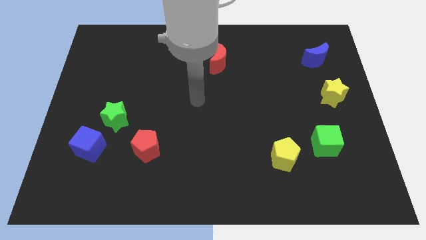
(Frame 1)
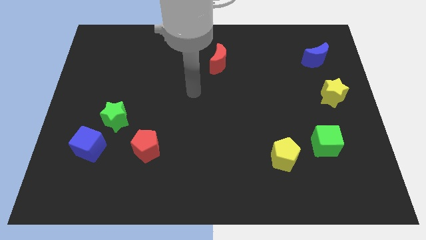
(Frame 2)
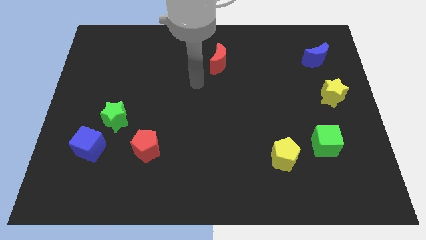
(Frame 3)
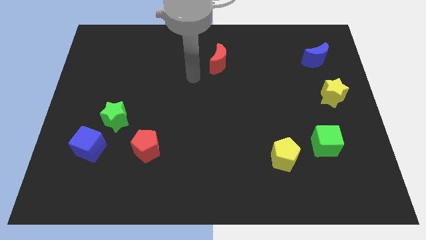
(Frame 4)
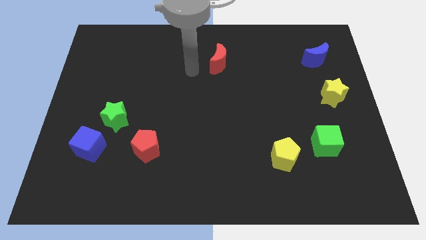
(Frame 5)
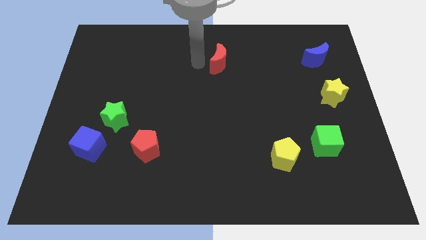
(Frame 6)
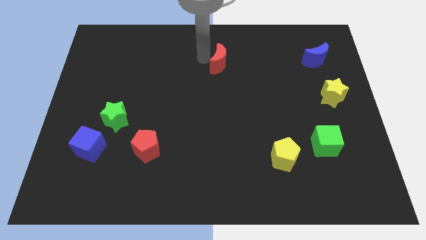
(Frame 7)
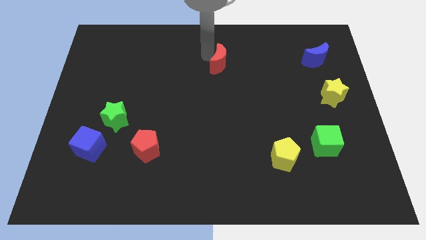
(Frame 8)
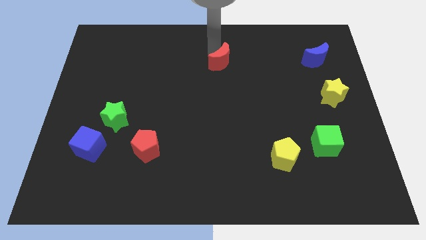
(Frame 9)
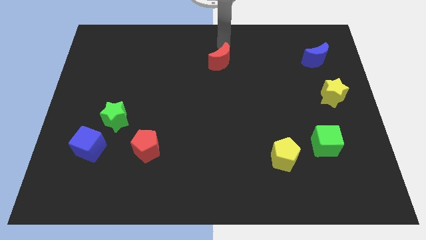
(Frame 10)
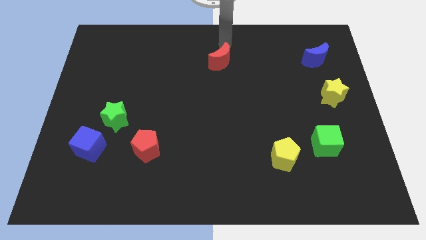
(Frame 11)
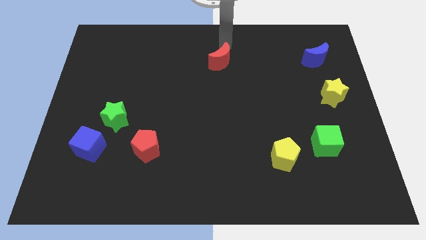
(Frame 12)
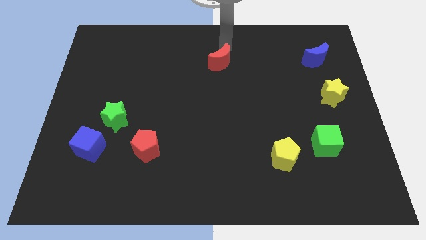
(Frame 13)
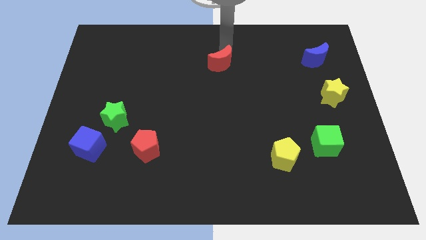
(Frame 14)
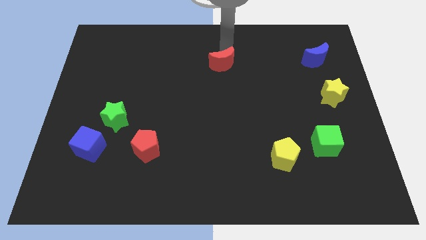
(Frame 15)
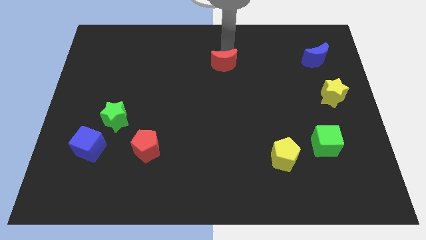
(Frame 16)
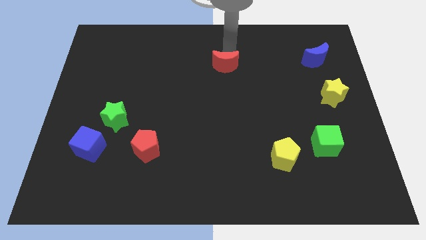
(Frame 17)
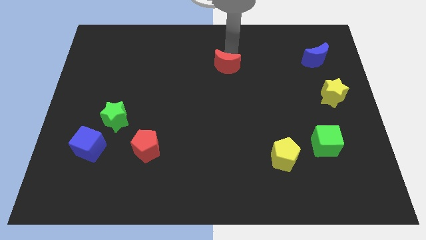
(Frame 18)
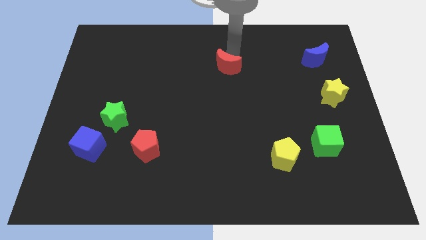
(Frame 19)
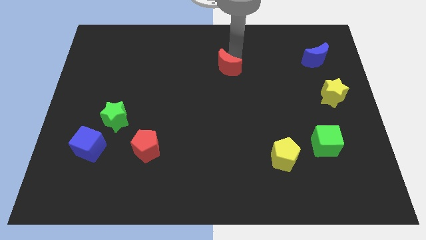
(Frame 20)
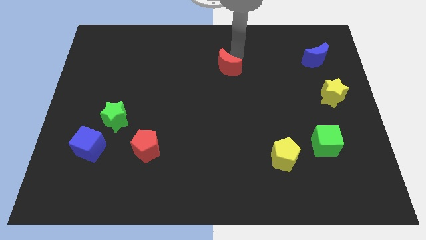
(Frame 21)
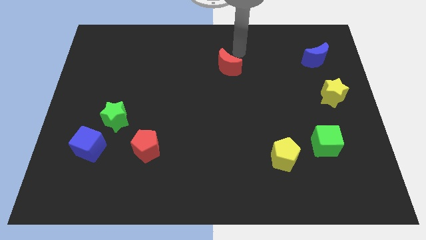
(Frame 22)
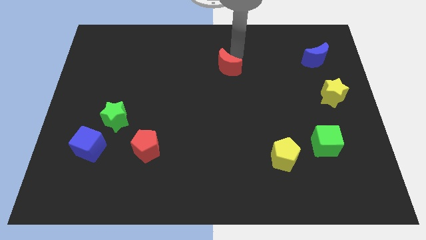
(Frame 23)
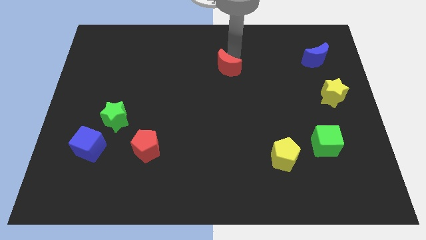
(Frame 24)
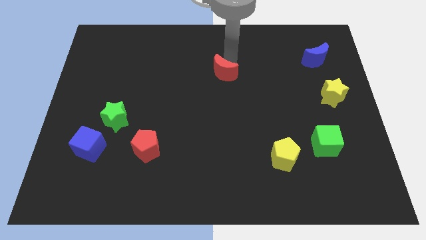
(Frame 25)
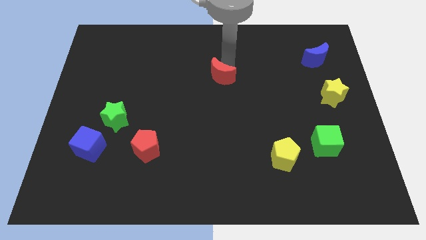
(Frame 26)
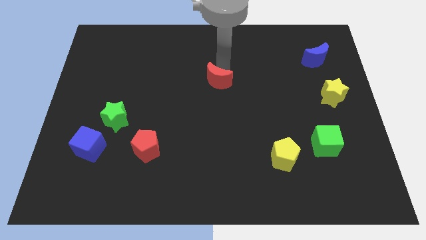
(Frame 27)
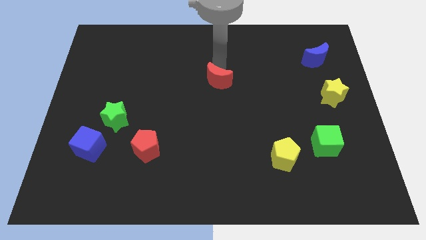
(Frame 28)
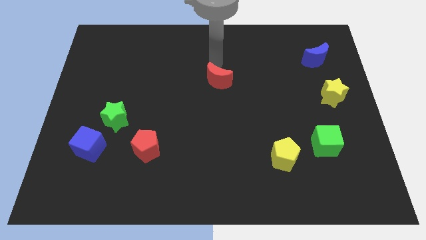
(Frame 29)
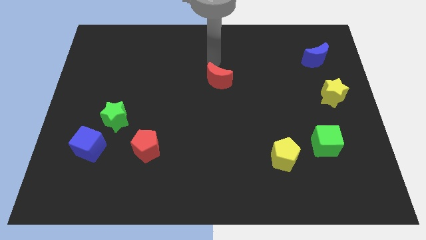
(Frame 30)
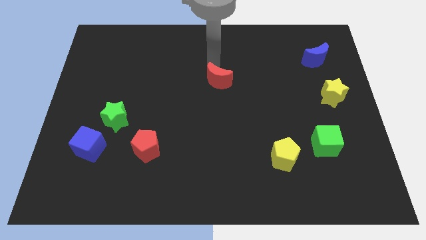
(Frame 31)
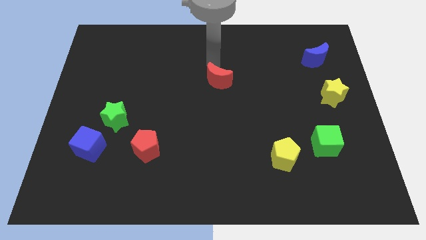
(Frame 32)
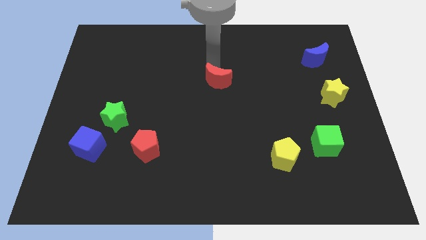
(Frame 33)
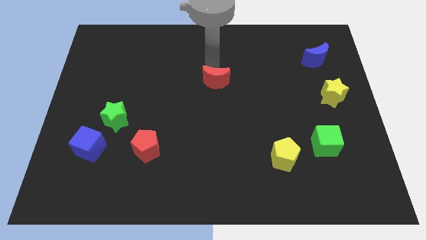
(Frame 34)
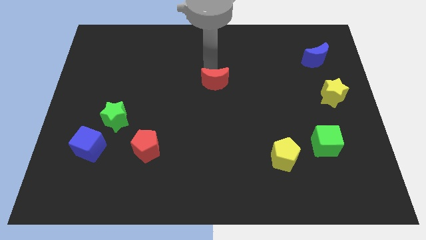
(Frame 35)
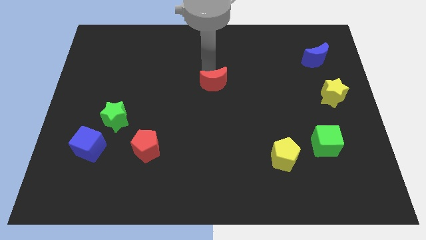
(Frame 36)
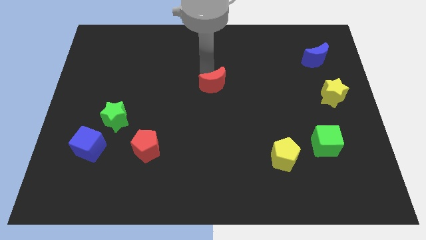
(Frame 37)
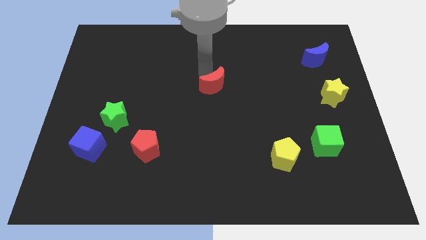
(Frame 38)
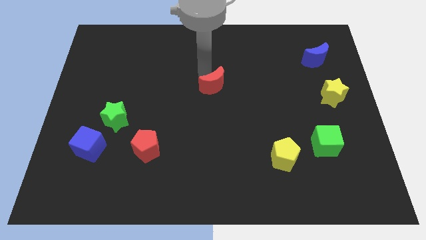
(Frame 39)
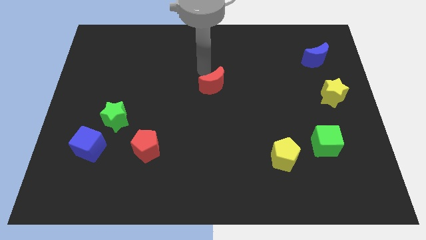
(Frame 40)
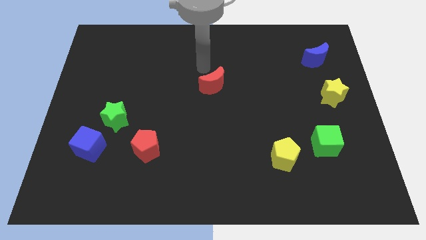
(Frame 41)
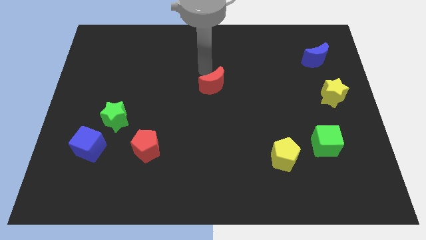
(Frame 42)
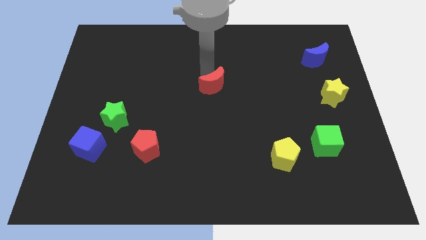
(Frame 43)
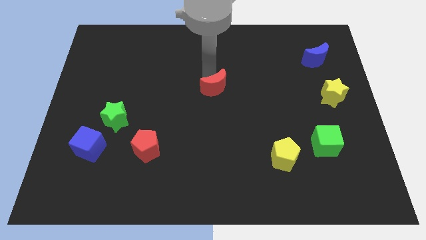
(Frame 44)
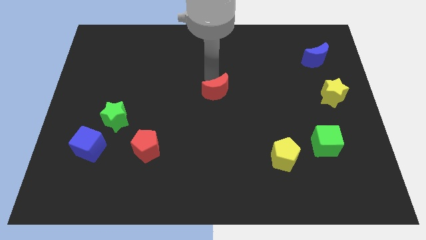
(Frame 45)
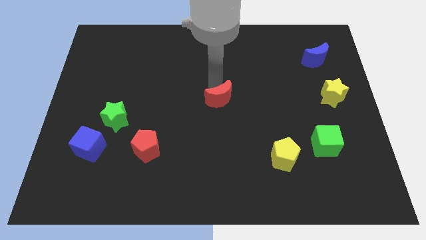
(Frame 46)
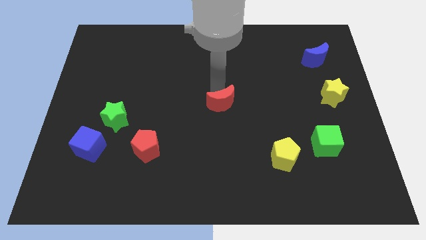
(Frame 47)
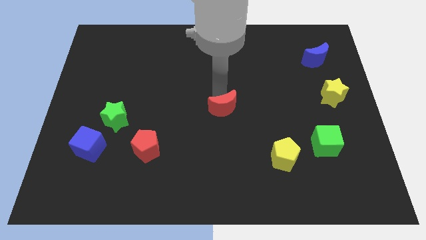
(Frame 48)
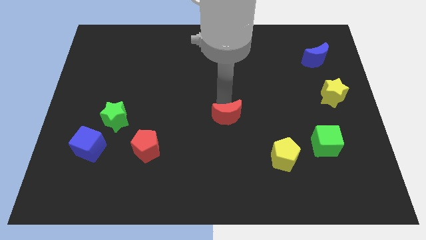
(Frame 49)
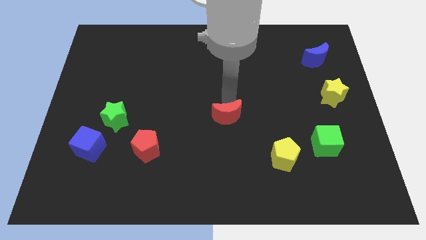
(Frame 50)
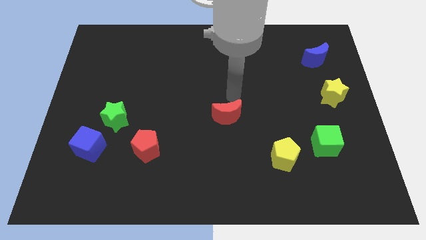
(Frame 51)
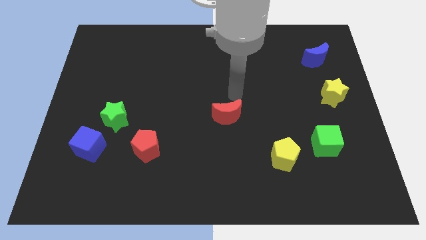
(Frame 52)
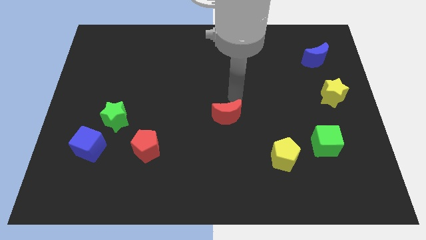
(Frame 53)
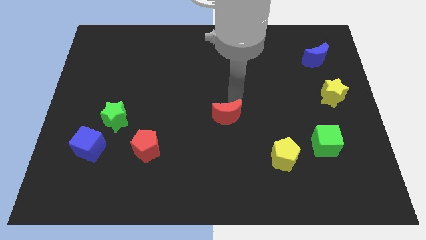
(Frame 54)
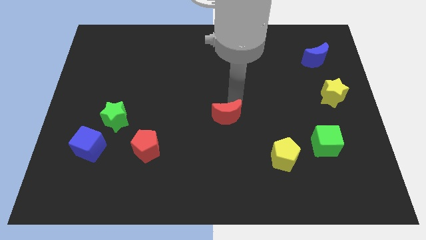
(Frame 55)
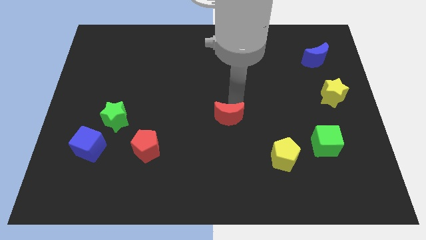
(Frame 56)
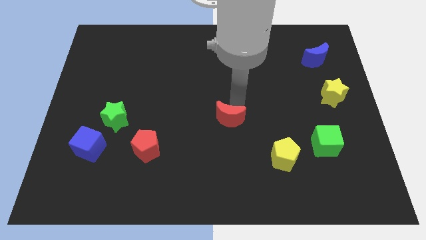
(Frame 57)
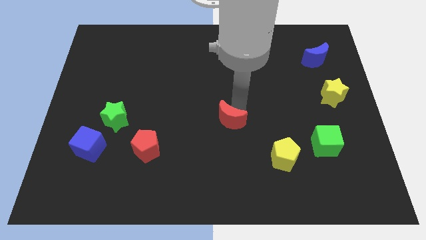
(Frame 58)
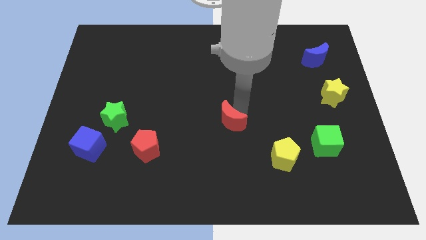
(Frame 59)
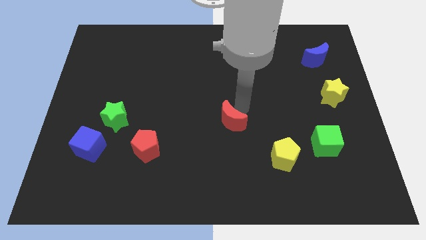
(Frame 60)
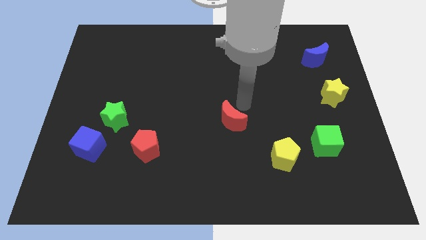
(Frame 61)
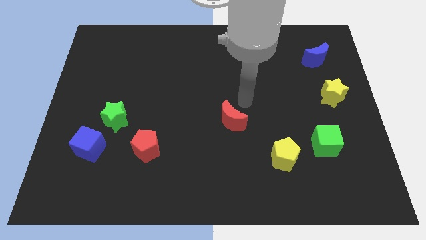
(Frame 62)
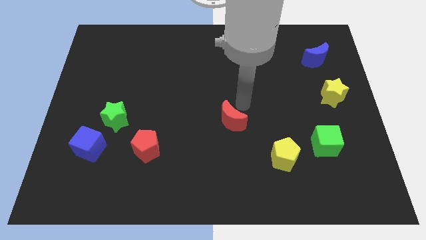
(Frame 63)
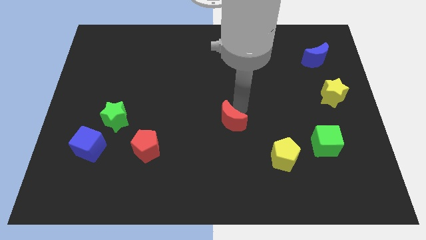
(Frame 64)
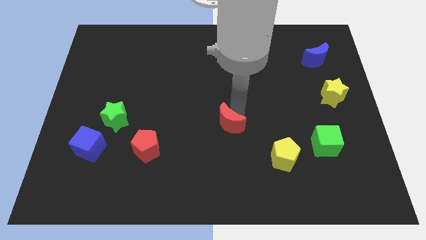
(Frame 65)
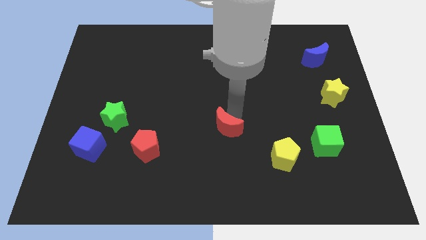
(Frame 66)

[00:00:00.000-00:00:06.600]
push the red moon down

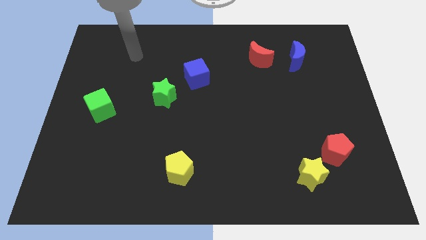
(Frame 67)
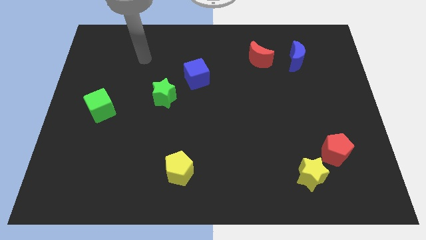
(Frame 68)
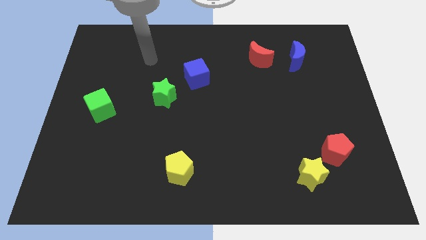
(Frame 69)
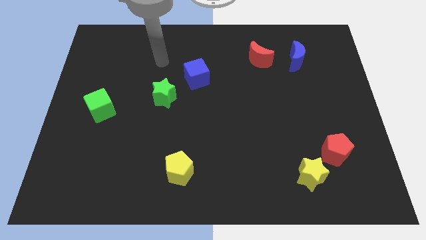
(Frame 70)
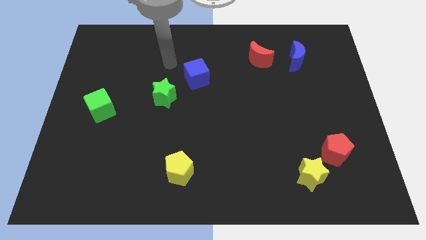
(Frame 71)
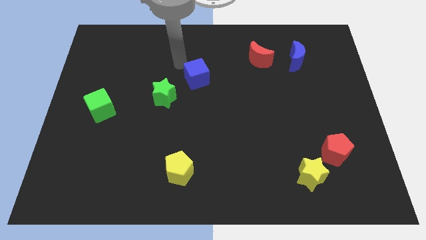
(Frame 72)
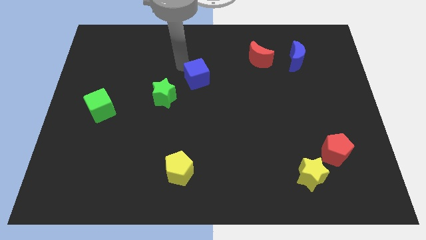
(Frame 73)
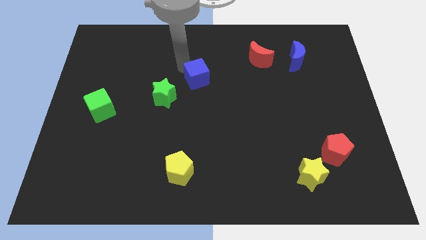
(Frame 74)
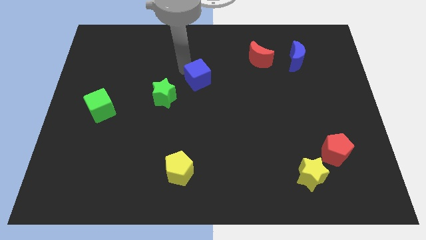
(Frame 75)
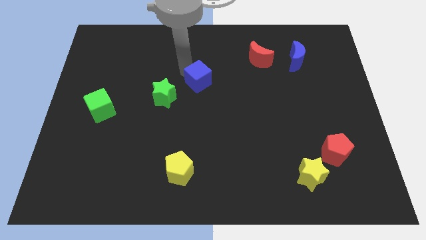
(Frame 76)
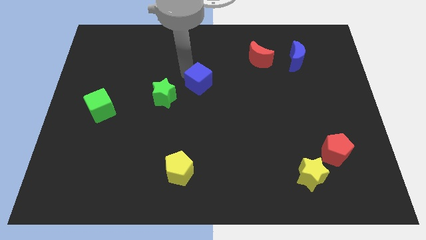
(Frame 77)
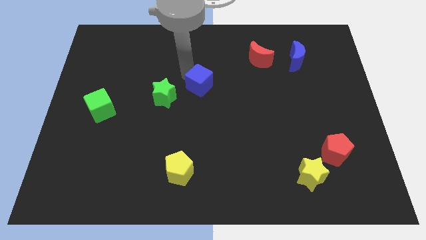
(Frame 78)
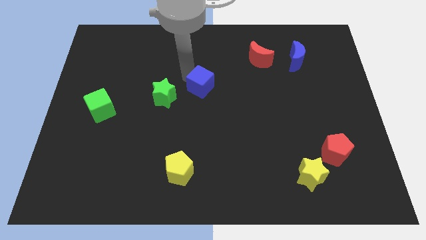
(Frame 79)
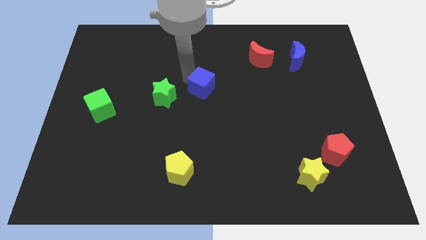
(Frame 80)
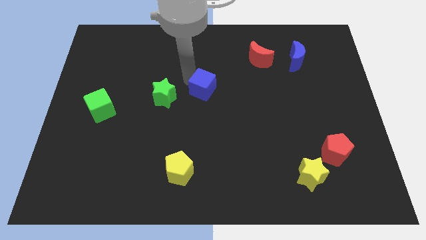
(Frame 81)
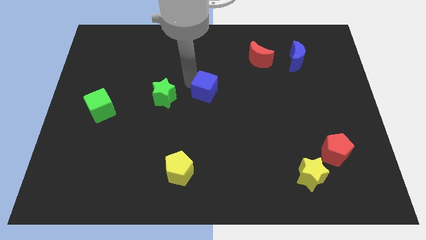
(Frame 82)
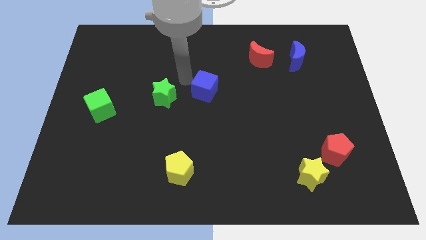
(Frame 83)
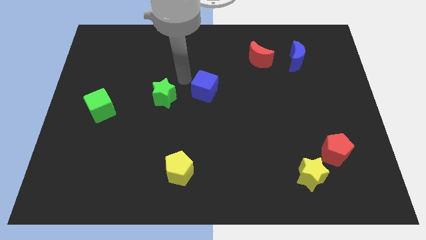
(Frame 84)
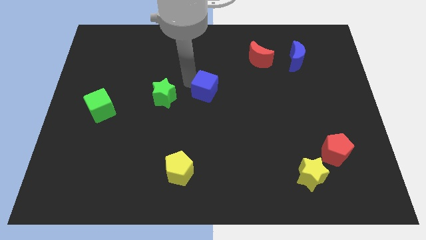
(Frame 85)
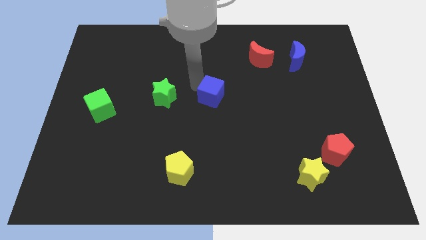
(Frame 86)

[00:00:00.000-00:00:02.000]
slightly slide the blue cube downwards and to the right diagonally

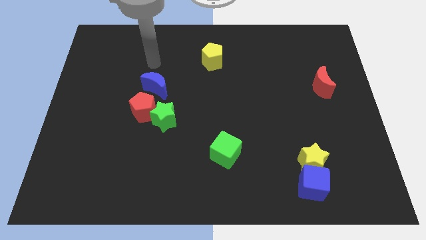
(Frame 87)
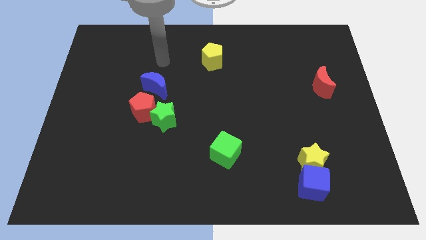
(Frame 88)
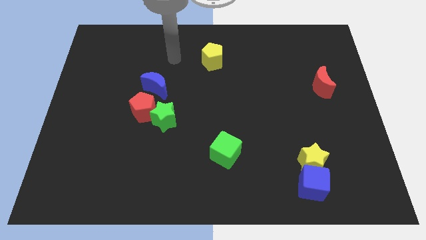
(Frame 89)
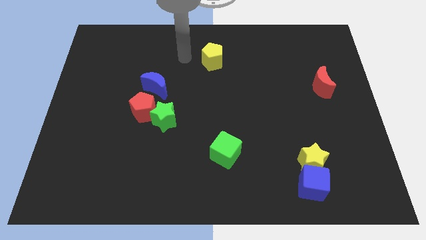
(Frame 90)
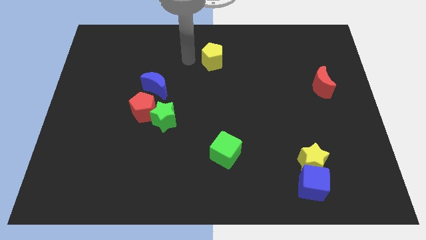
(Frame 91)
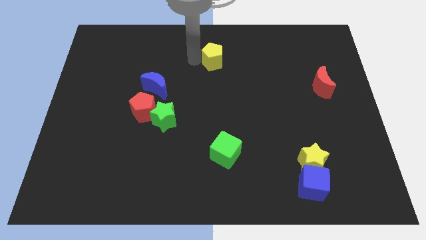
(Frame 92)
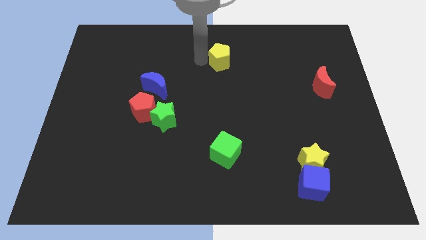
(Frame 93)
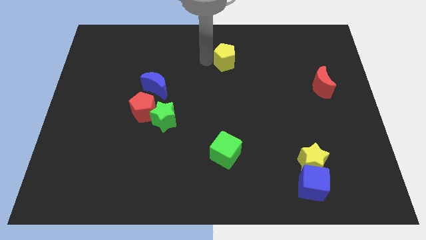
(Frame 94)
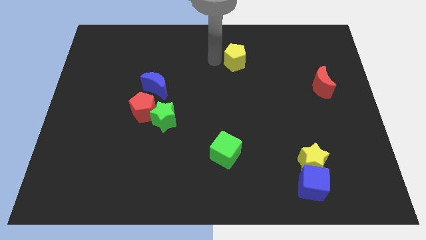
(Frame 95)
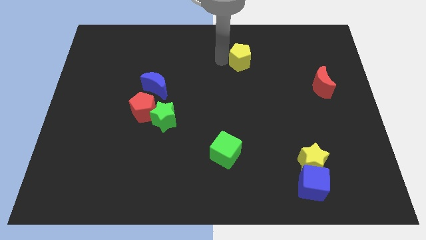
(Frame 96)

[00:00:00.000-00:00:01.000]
slightly push the yellow pentagon to the right
